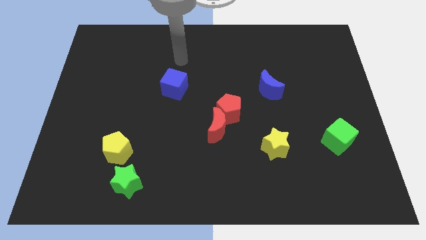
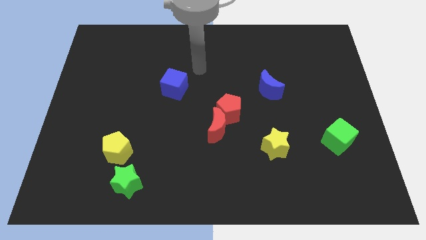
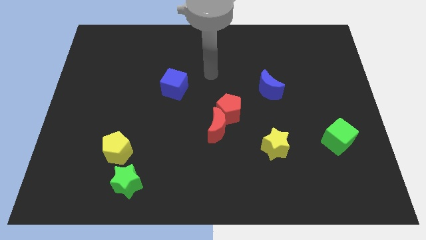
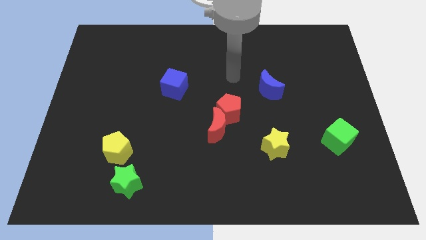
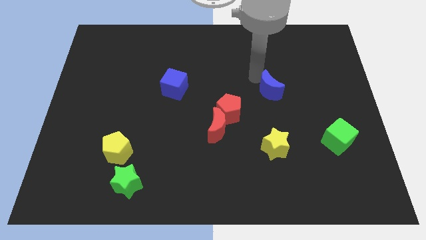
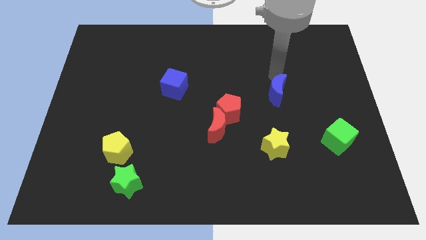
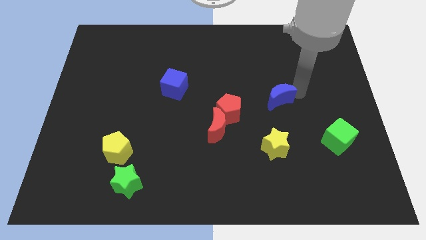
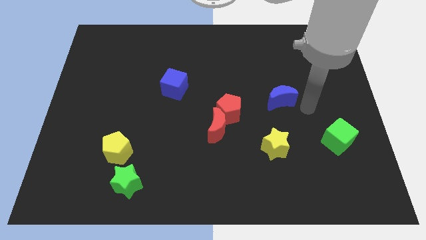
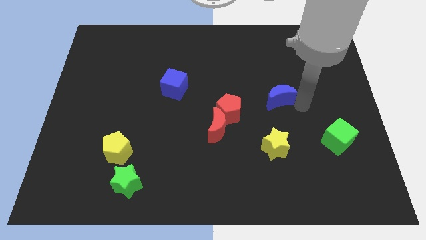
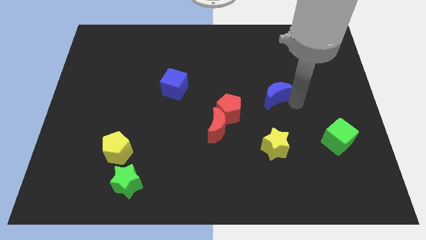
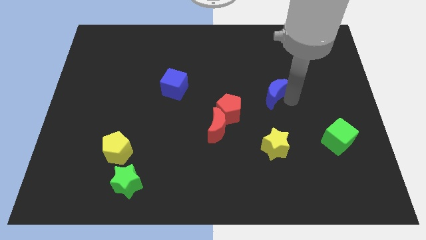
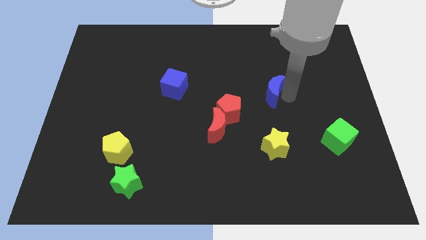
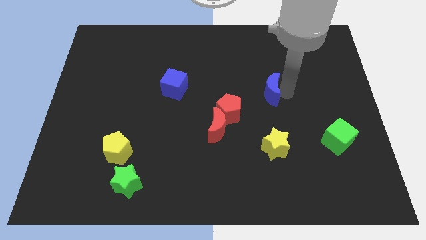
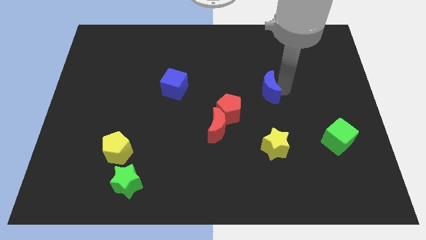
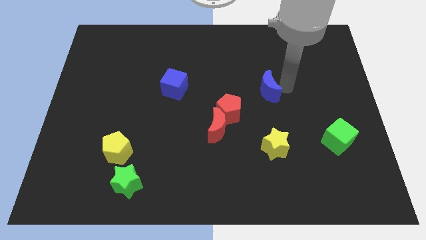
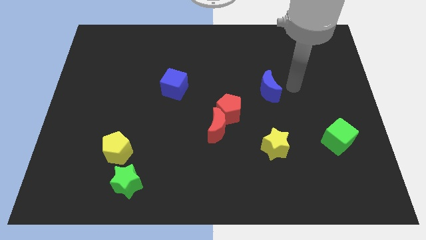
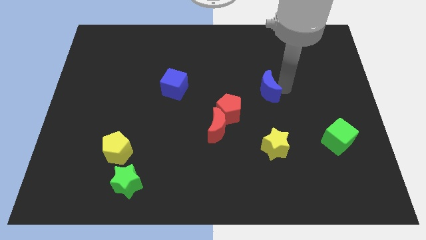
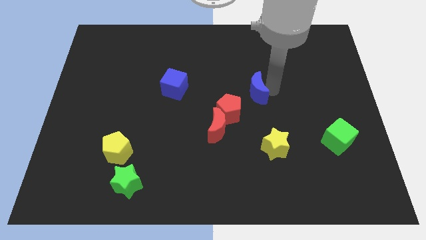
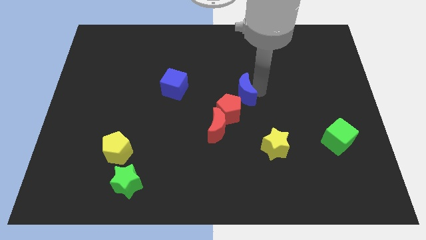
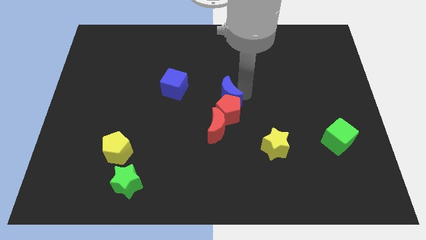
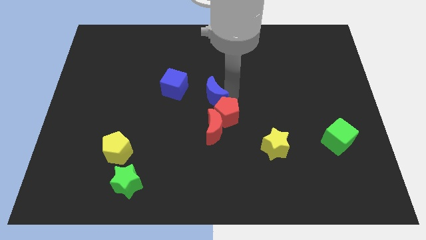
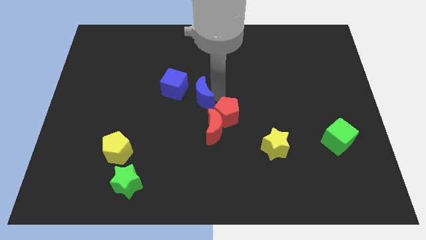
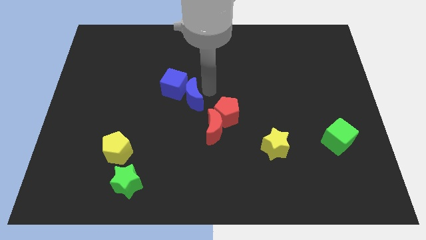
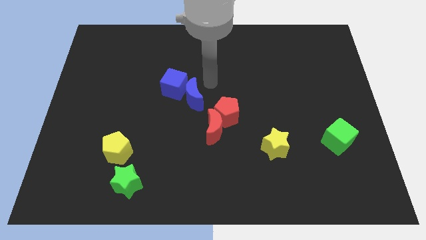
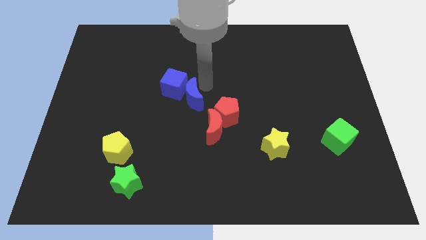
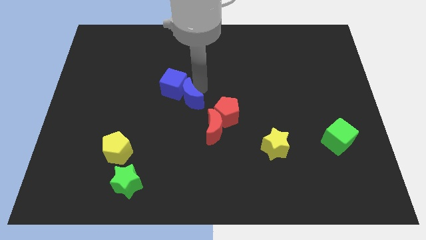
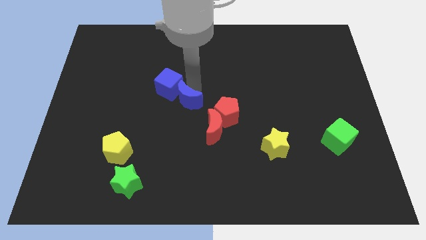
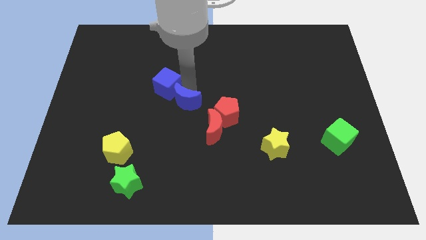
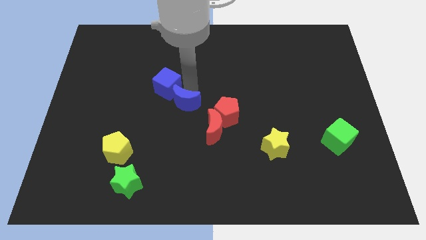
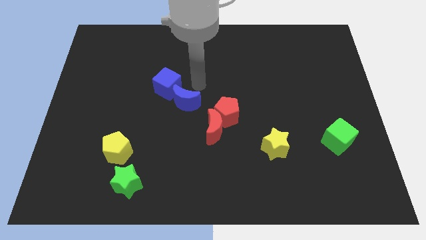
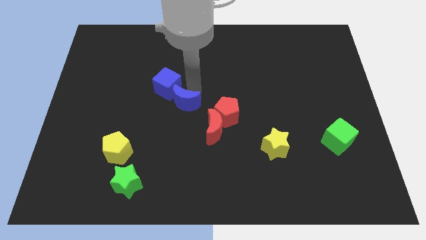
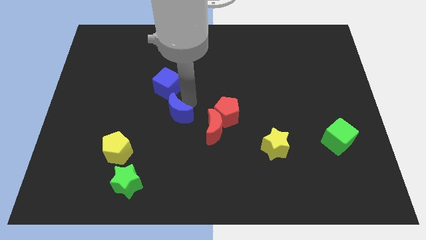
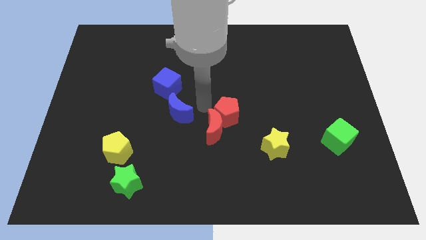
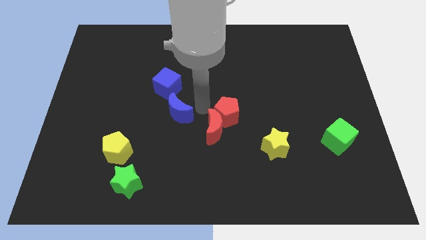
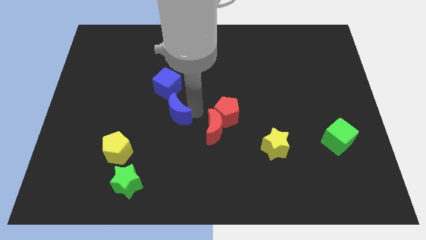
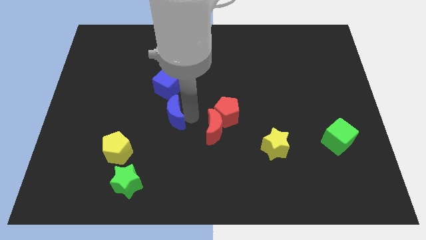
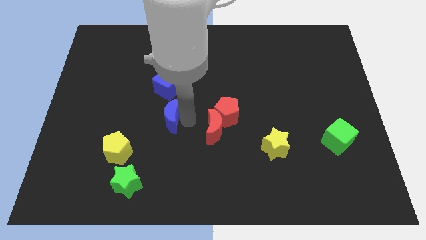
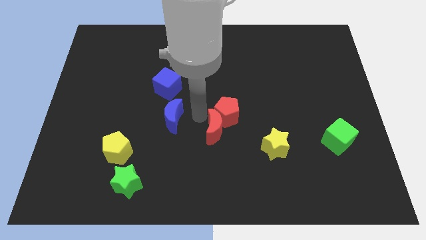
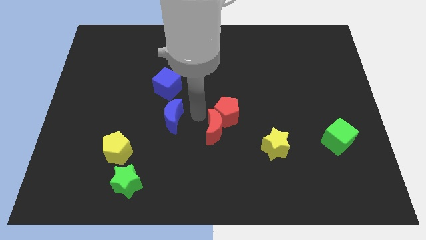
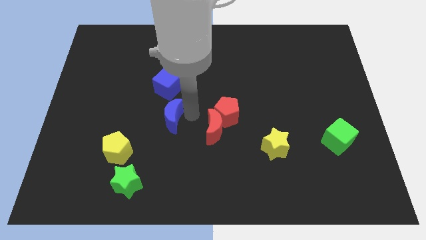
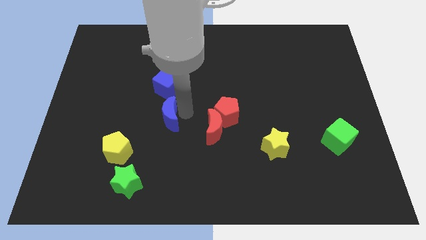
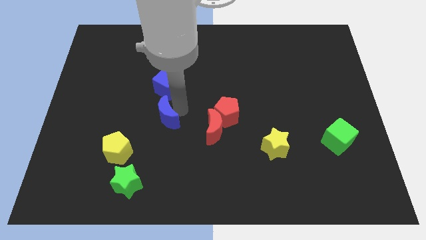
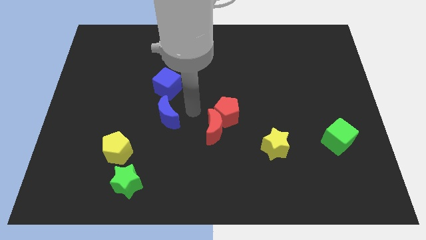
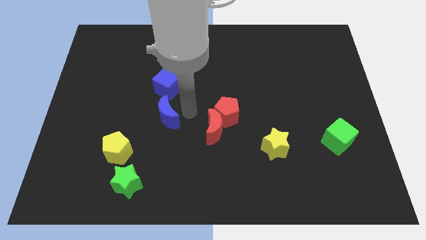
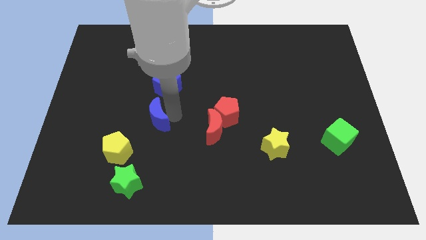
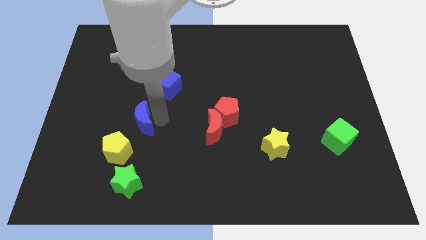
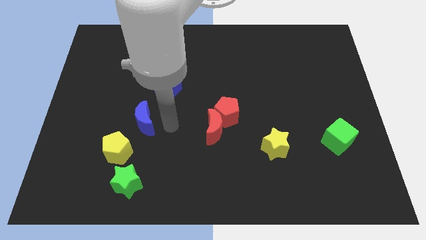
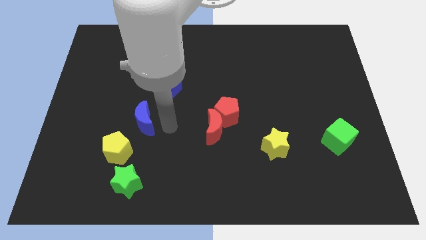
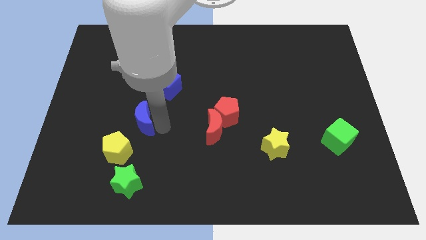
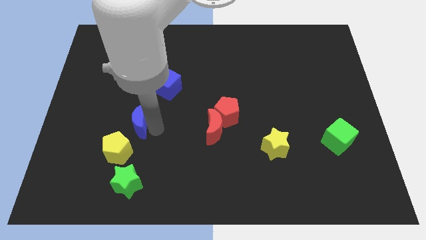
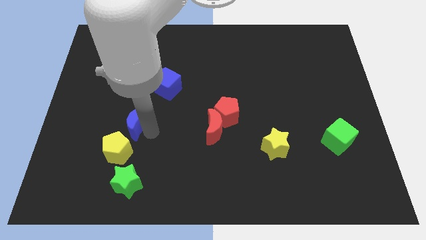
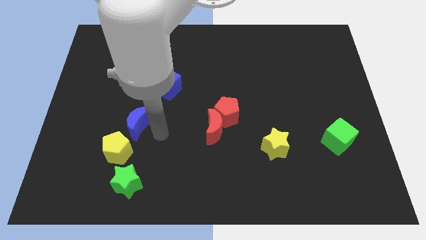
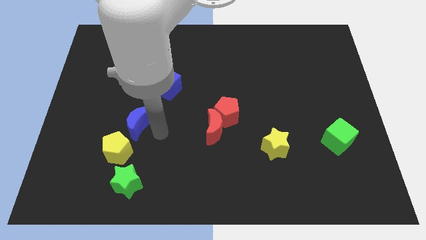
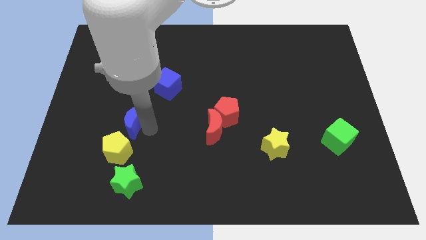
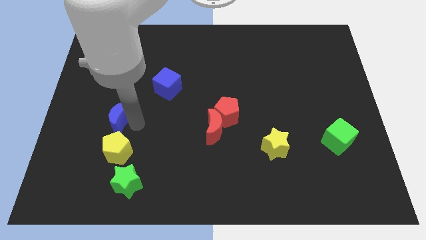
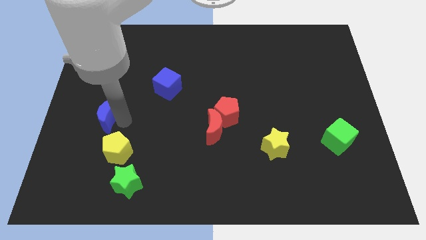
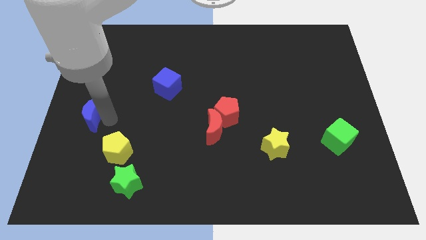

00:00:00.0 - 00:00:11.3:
push the blue moon to the left side of the board
